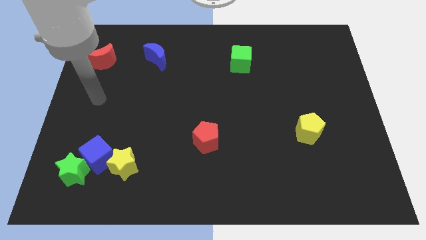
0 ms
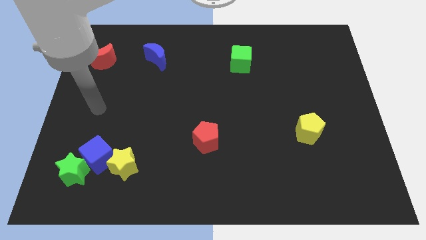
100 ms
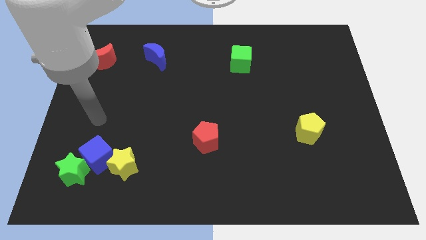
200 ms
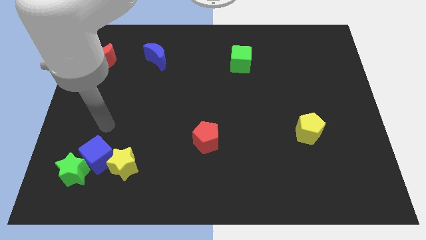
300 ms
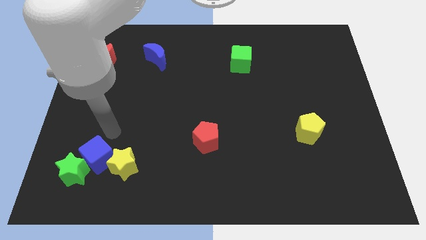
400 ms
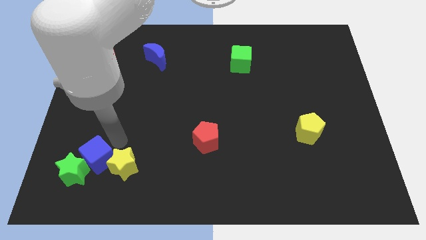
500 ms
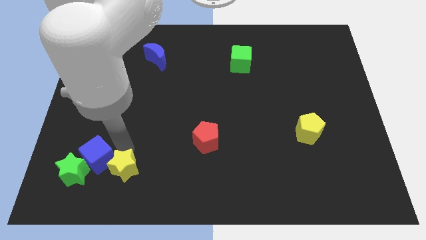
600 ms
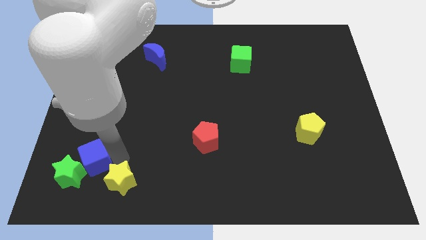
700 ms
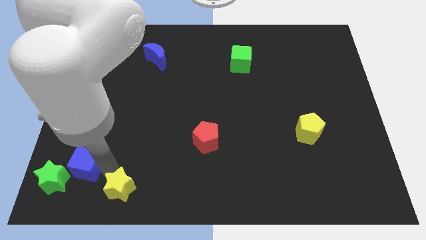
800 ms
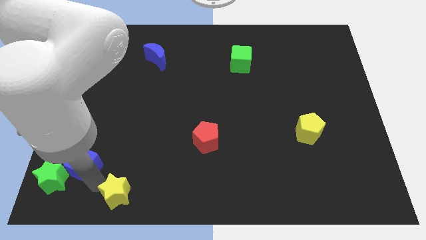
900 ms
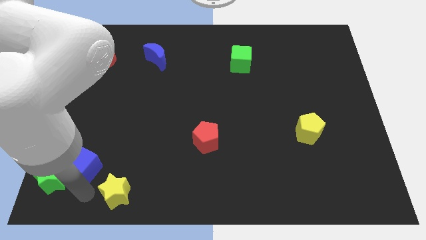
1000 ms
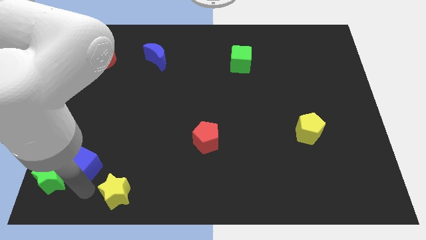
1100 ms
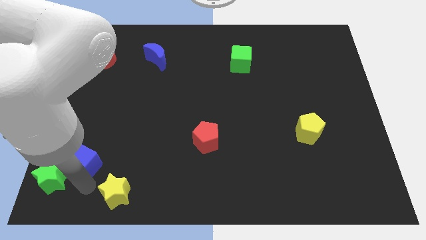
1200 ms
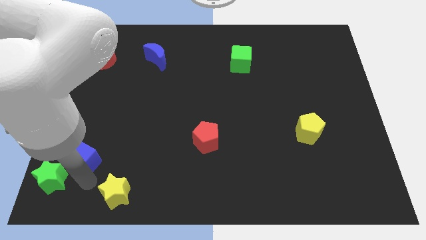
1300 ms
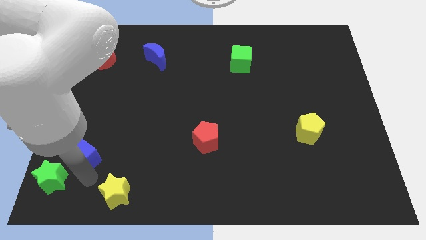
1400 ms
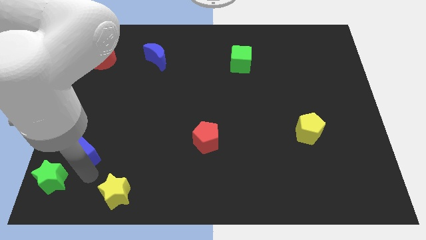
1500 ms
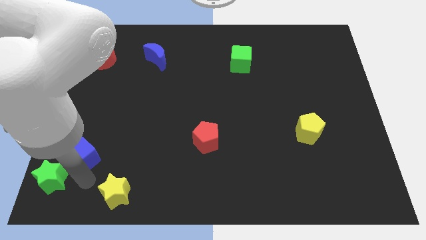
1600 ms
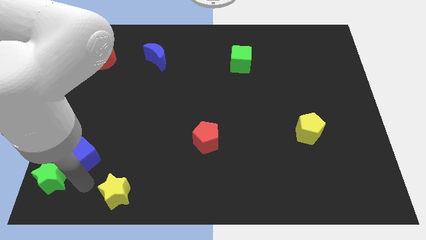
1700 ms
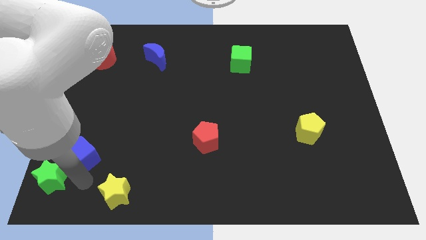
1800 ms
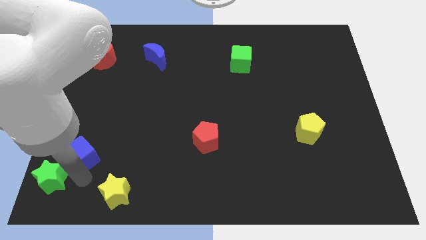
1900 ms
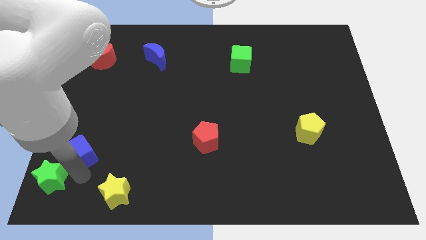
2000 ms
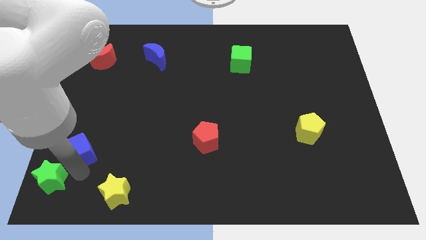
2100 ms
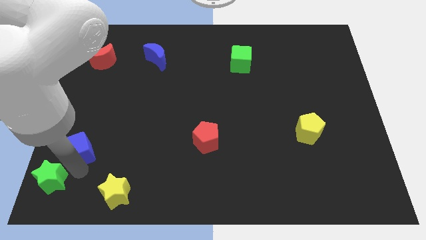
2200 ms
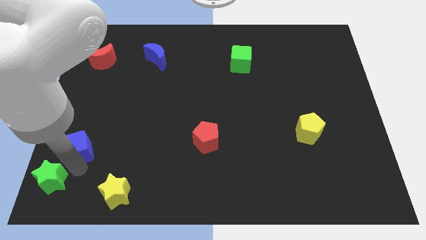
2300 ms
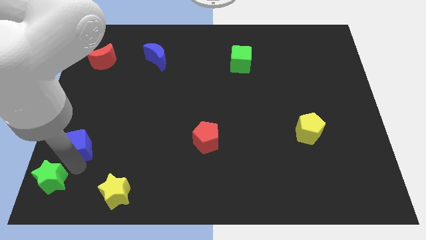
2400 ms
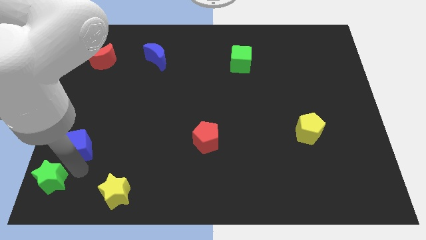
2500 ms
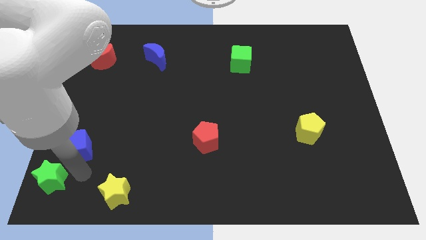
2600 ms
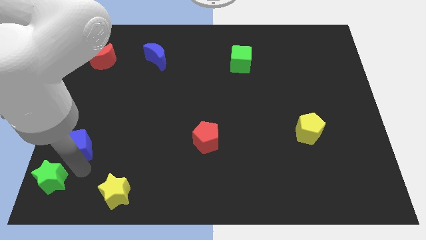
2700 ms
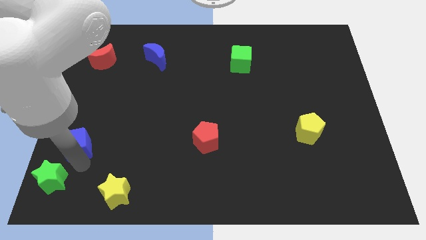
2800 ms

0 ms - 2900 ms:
separate the blue cube from the yellow star and green star

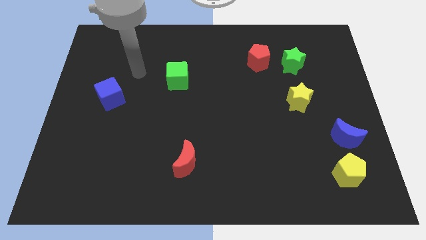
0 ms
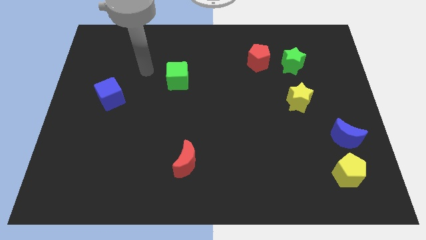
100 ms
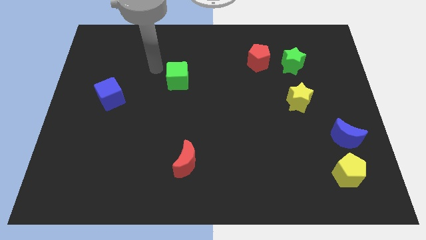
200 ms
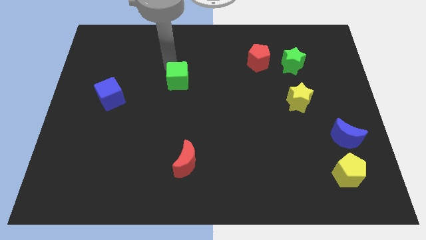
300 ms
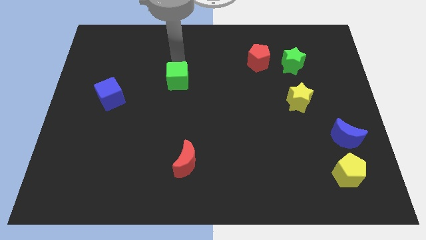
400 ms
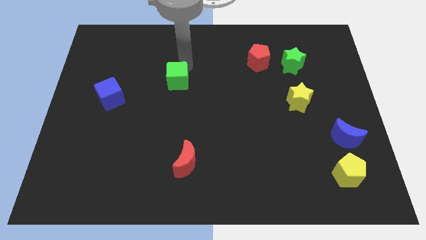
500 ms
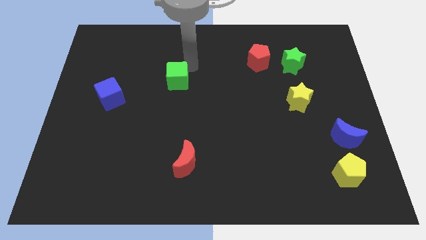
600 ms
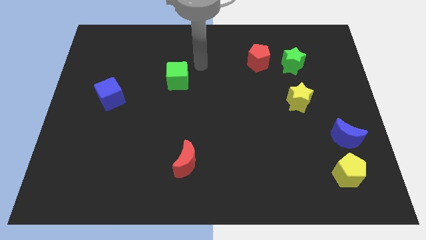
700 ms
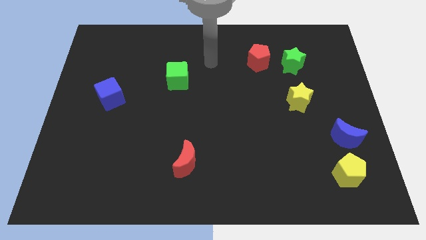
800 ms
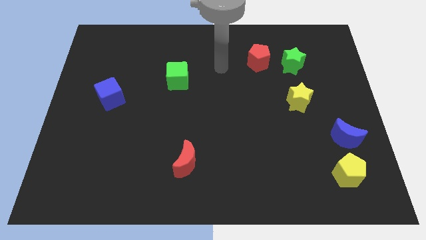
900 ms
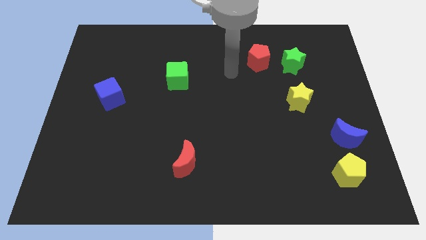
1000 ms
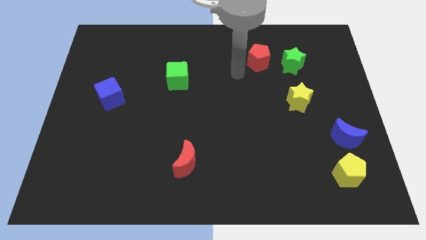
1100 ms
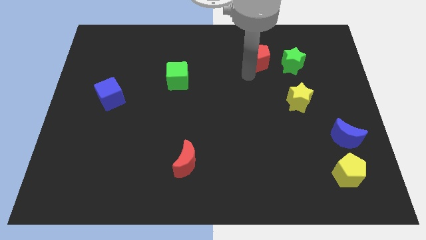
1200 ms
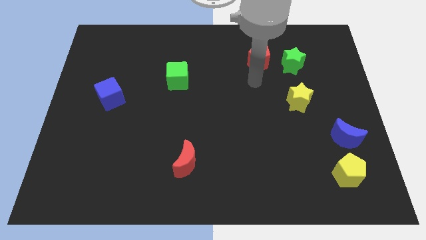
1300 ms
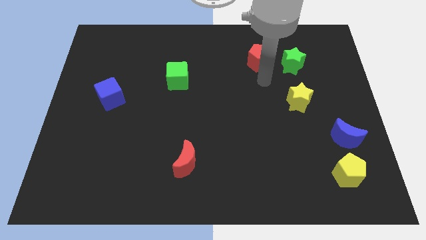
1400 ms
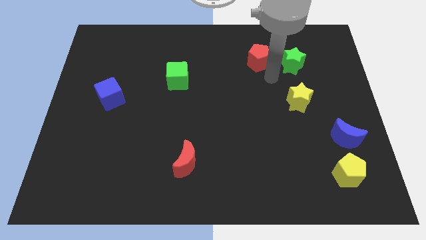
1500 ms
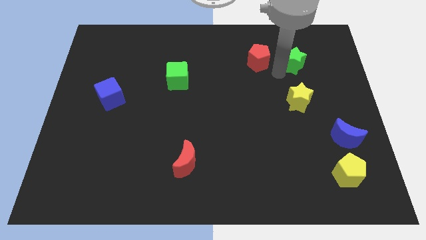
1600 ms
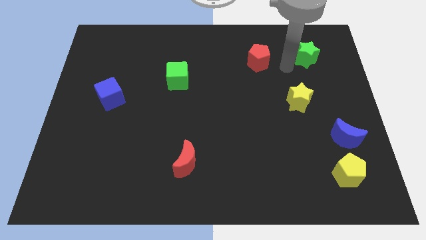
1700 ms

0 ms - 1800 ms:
move the red pentagon away from the green star

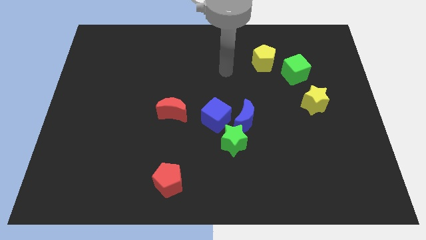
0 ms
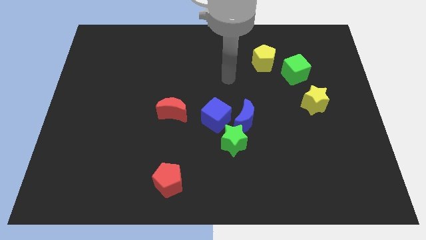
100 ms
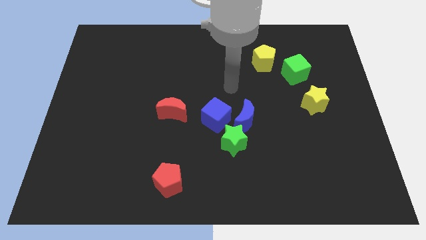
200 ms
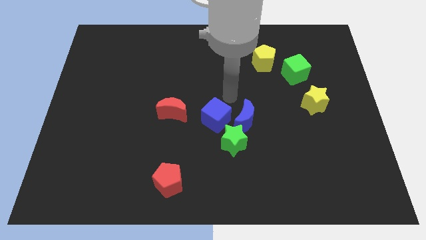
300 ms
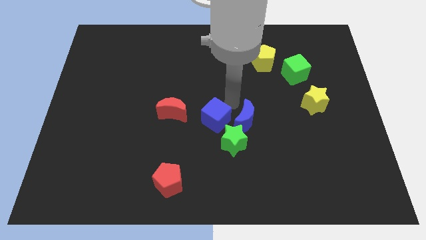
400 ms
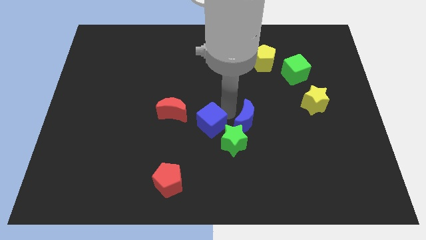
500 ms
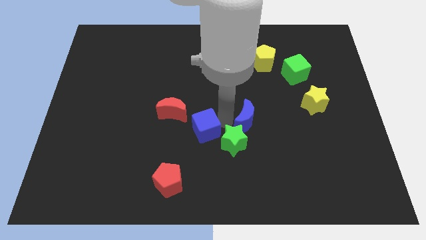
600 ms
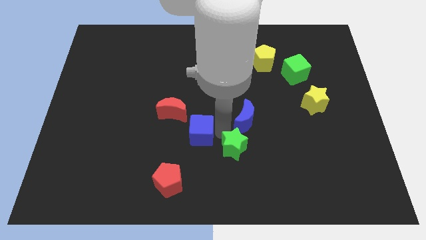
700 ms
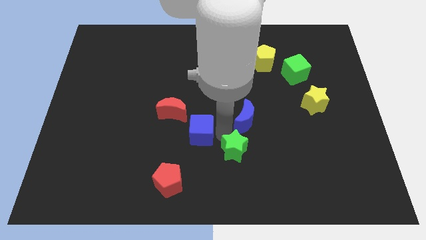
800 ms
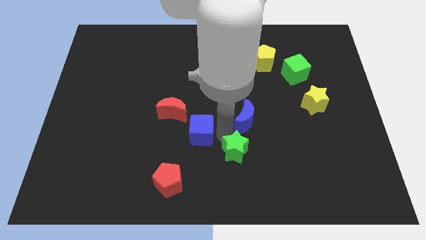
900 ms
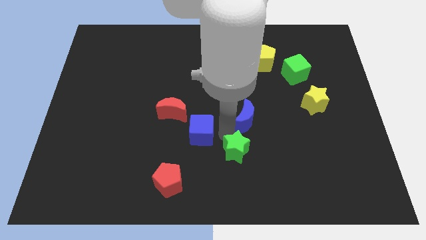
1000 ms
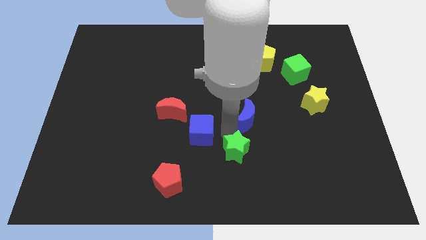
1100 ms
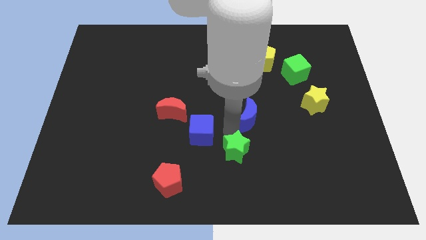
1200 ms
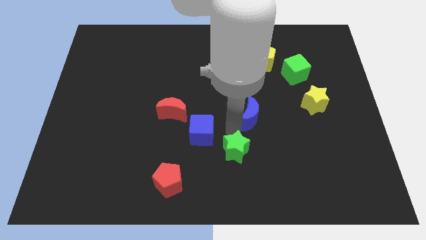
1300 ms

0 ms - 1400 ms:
pull the blue moon apart from the blue cube and green star

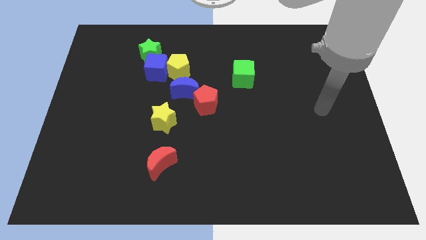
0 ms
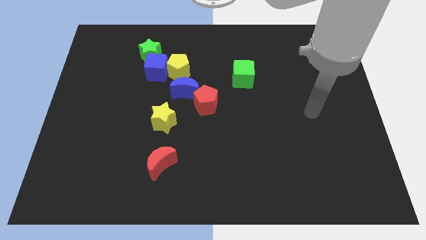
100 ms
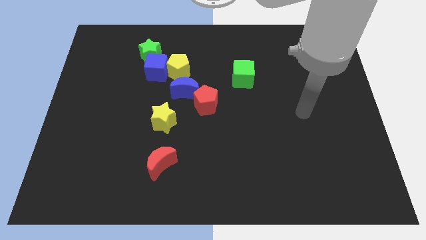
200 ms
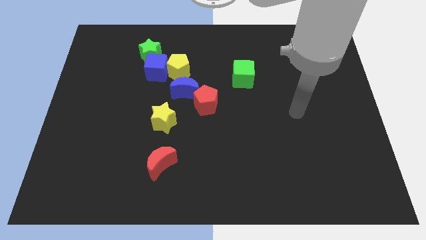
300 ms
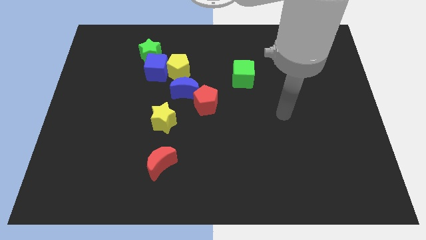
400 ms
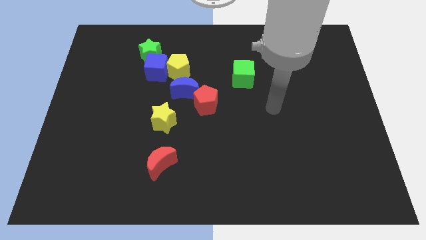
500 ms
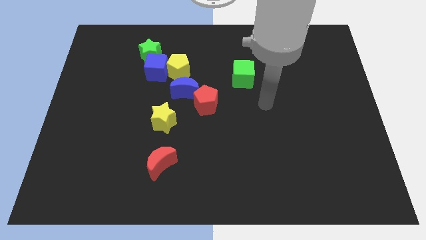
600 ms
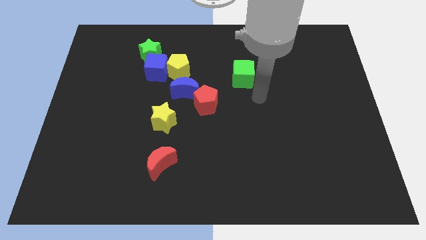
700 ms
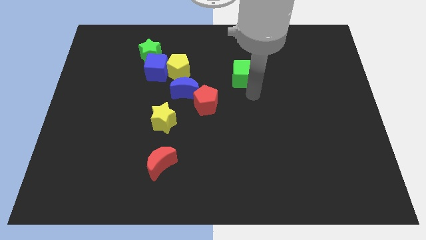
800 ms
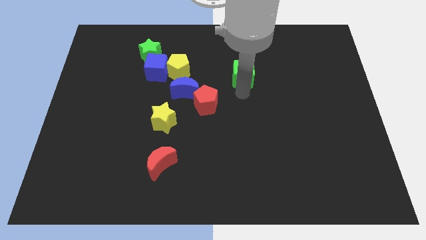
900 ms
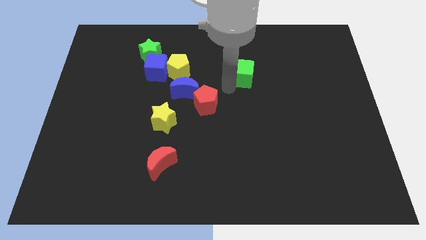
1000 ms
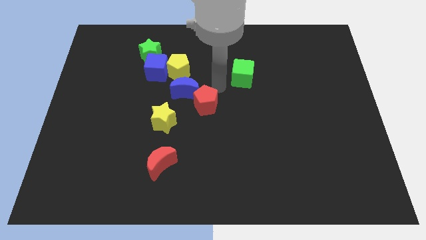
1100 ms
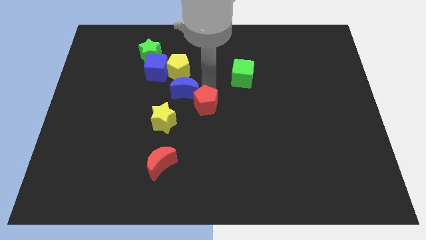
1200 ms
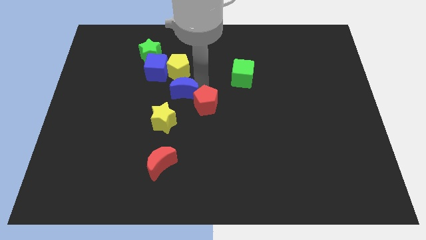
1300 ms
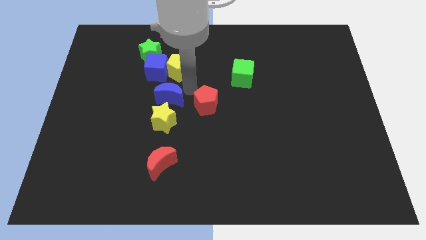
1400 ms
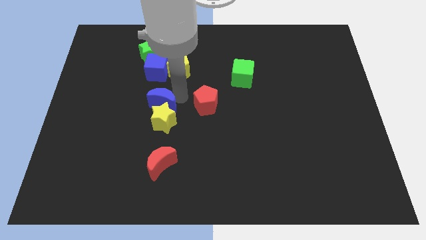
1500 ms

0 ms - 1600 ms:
move the red pentagon away from the blue moon

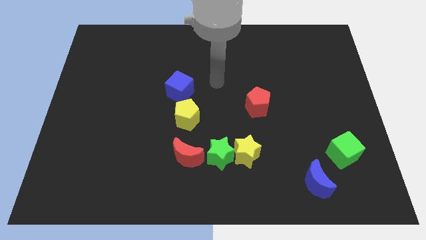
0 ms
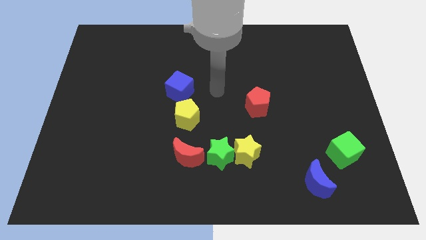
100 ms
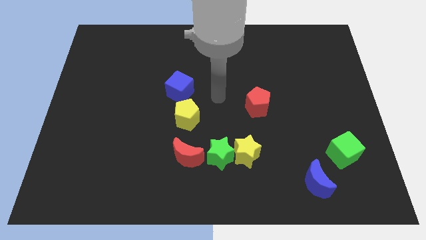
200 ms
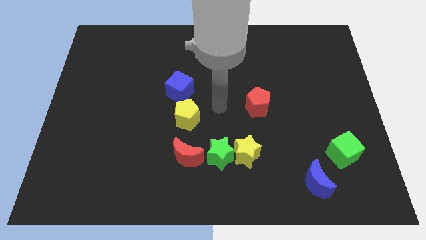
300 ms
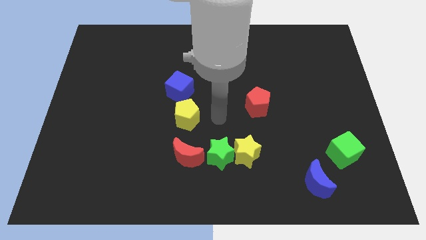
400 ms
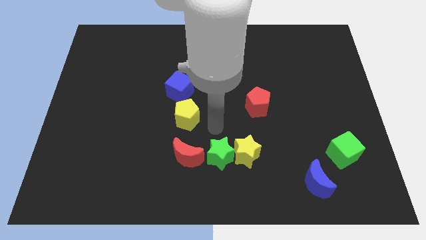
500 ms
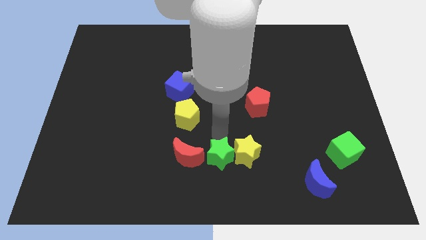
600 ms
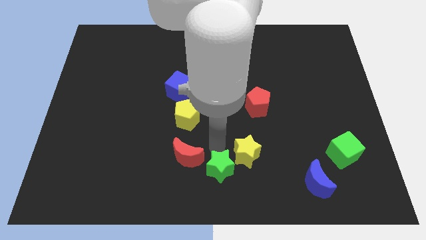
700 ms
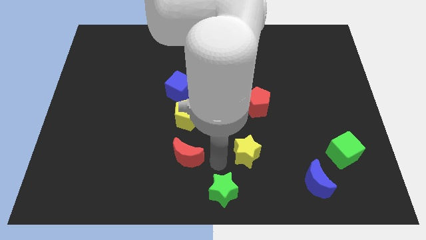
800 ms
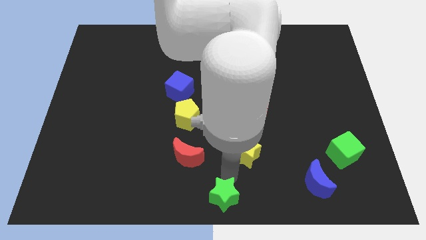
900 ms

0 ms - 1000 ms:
pull the yellow star apart from the green star

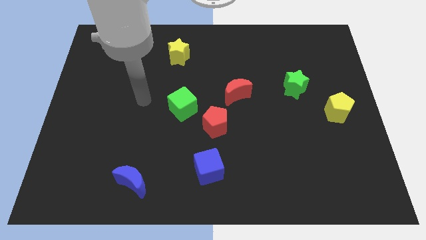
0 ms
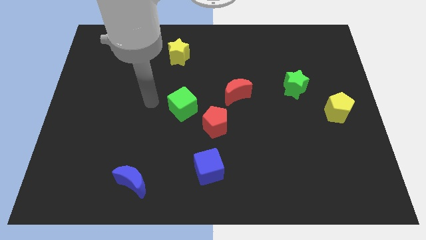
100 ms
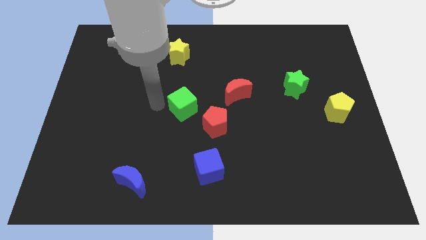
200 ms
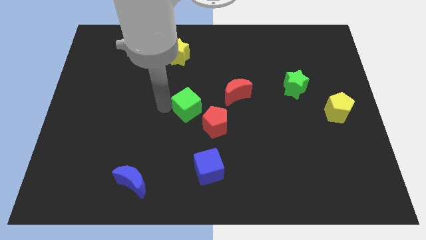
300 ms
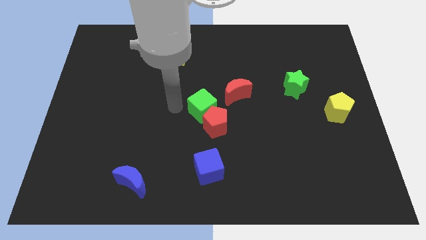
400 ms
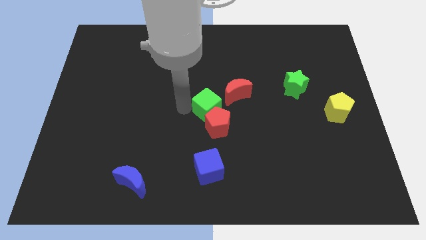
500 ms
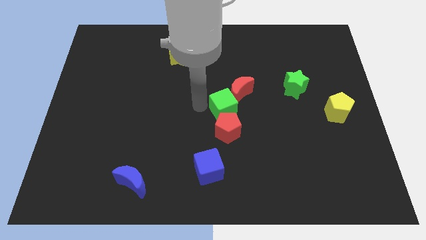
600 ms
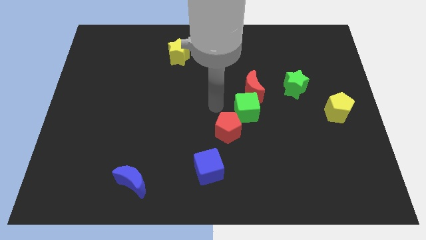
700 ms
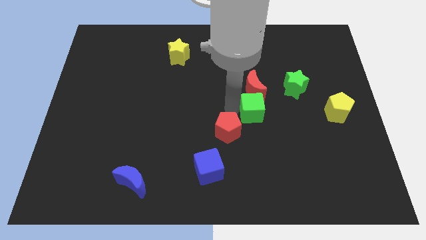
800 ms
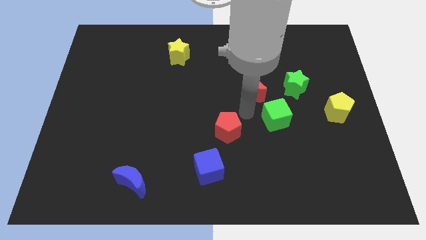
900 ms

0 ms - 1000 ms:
pull the red pentagon apart from the green cube
